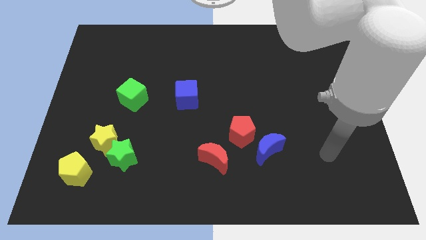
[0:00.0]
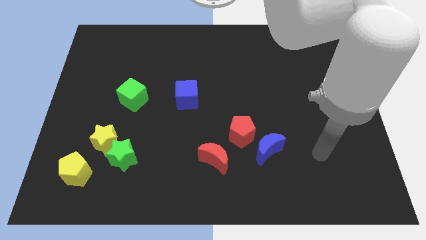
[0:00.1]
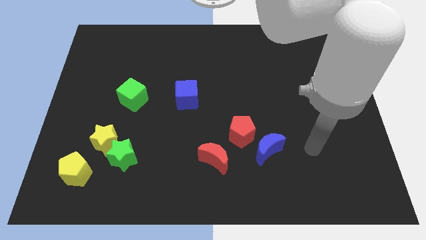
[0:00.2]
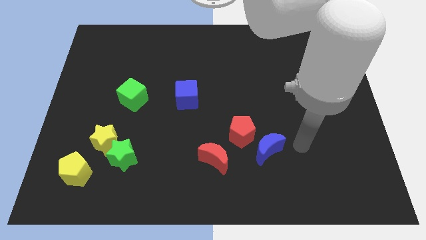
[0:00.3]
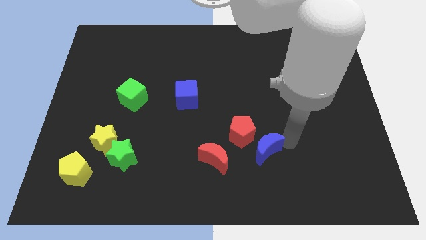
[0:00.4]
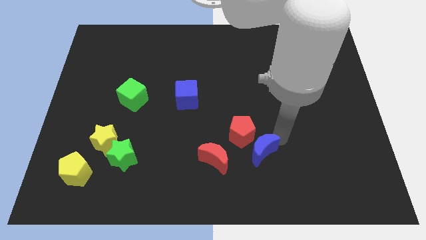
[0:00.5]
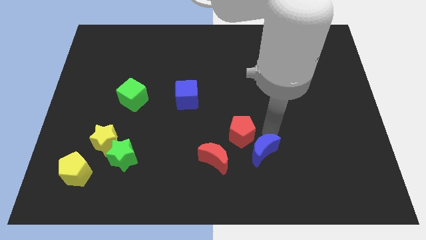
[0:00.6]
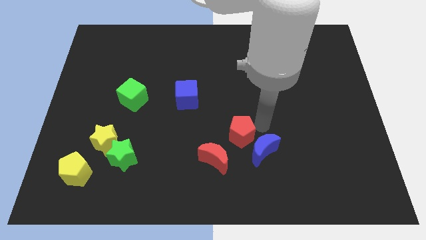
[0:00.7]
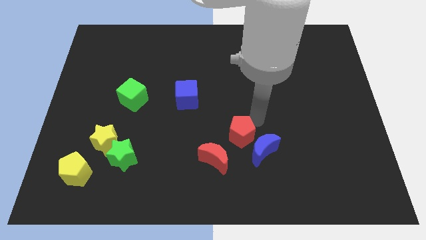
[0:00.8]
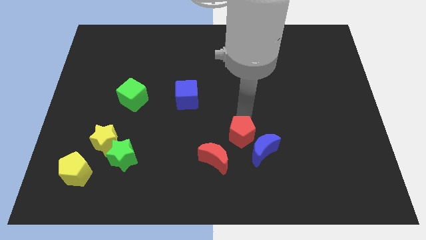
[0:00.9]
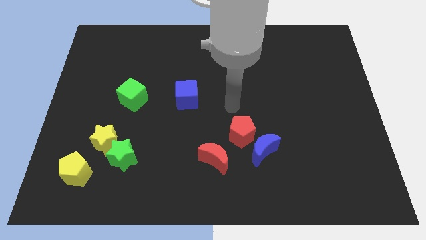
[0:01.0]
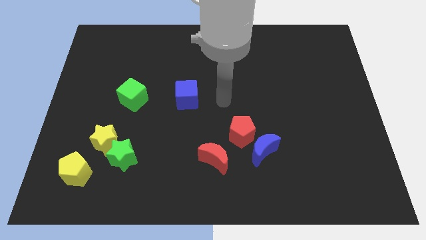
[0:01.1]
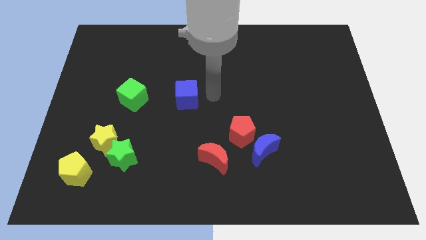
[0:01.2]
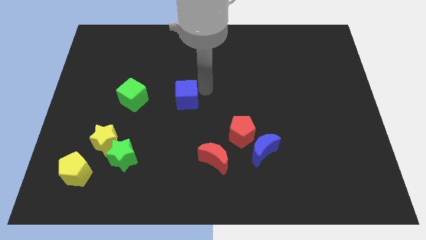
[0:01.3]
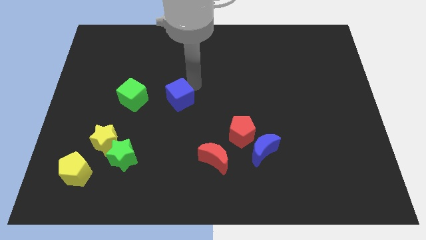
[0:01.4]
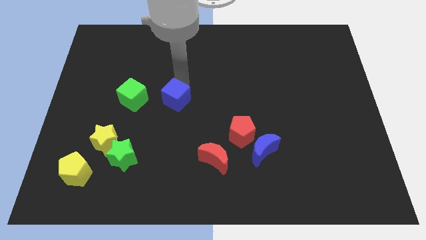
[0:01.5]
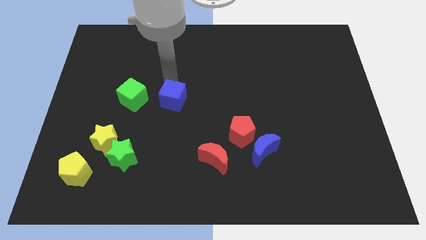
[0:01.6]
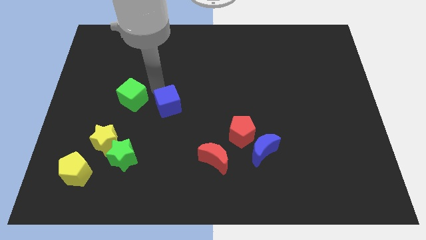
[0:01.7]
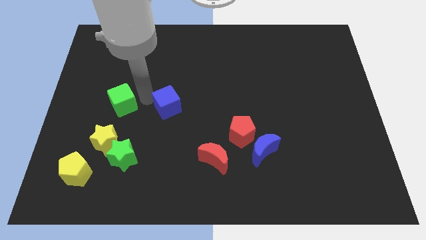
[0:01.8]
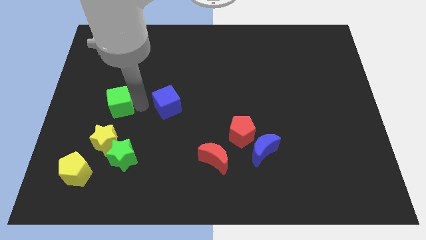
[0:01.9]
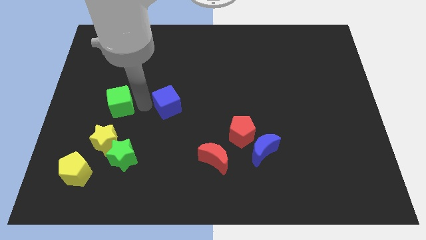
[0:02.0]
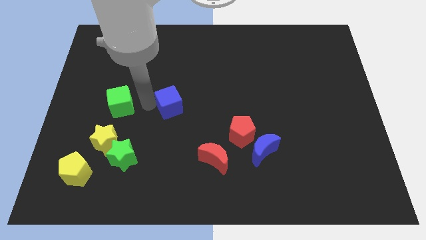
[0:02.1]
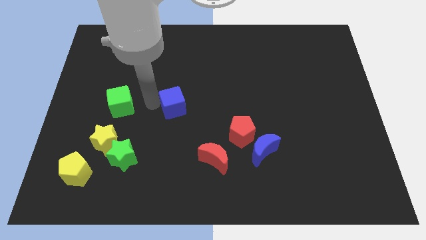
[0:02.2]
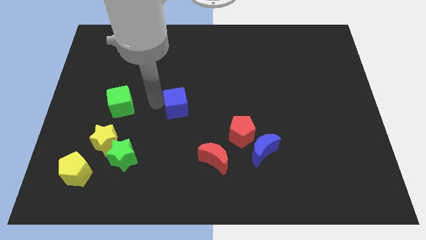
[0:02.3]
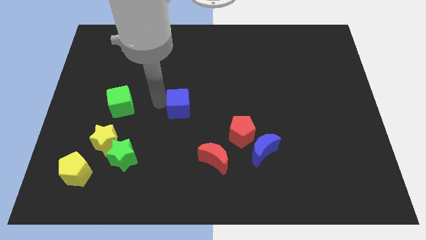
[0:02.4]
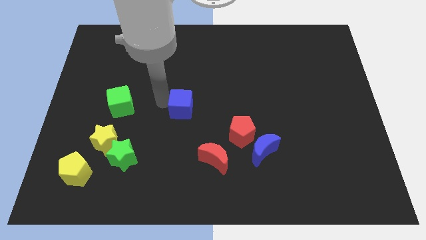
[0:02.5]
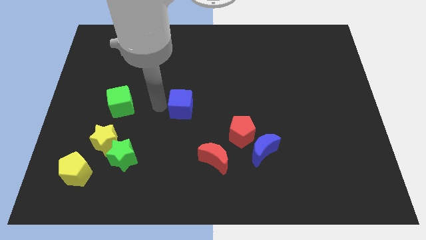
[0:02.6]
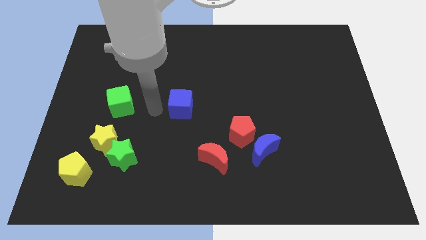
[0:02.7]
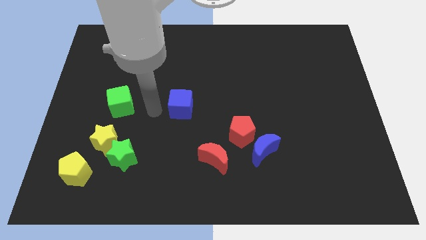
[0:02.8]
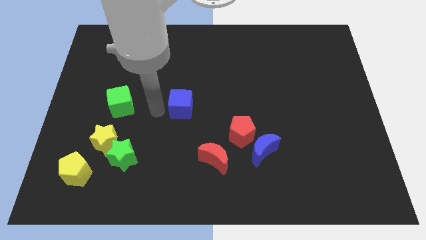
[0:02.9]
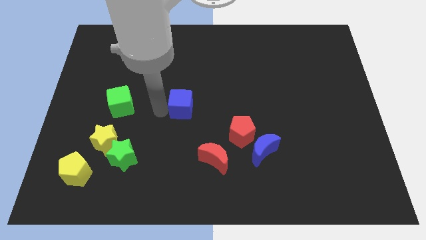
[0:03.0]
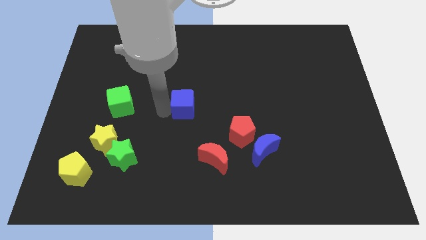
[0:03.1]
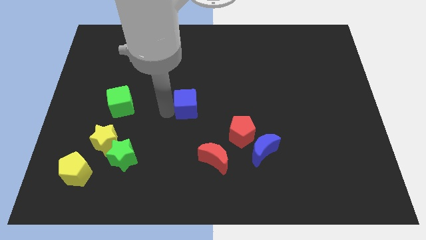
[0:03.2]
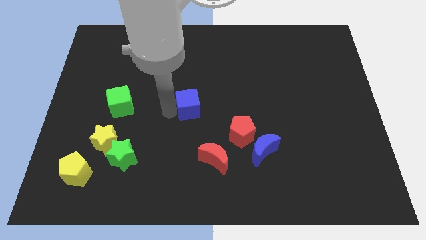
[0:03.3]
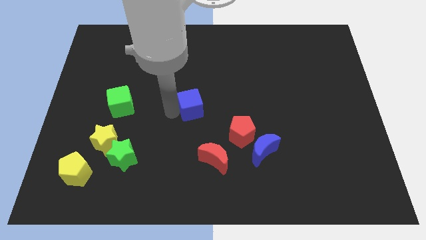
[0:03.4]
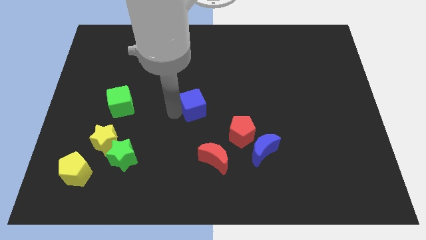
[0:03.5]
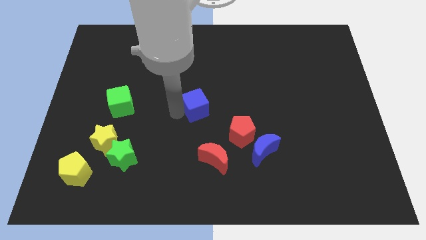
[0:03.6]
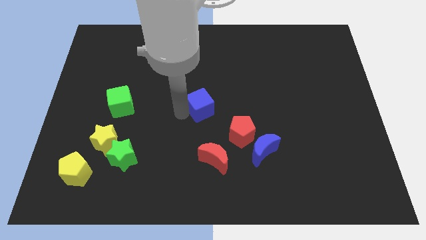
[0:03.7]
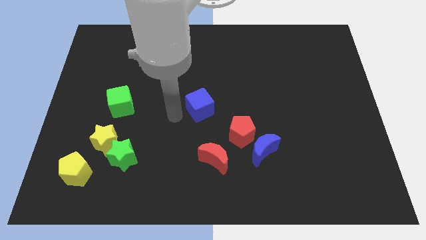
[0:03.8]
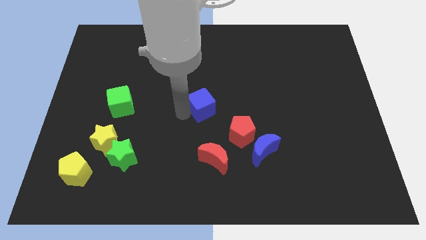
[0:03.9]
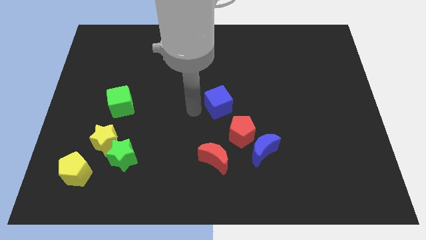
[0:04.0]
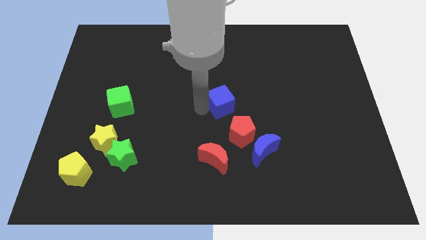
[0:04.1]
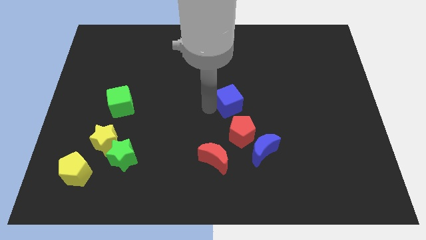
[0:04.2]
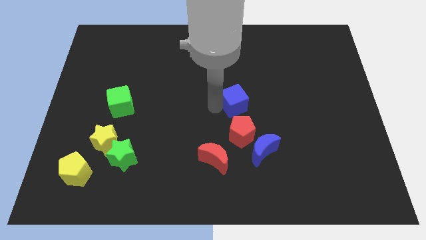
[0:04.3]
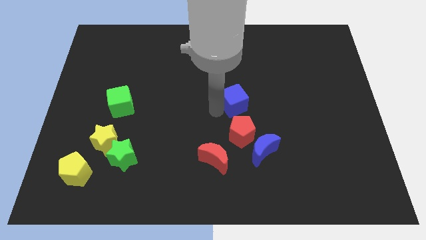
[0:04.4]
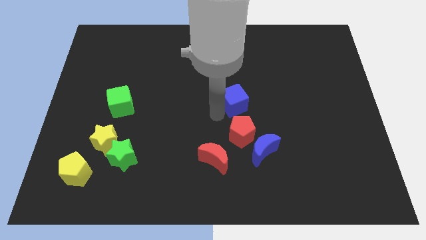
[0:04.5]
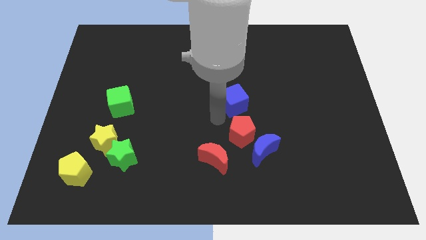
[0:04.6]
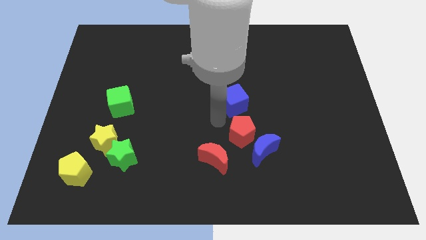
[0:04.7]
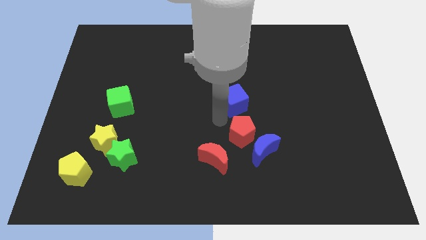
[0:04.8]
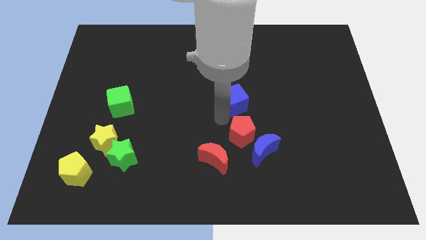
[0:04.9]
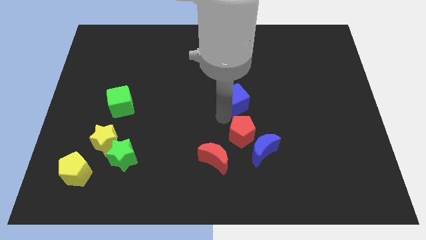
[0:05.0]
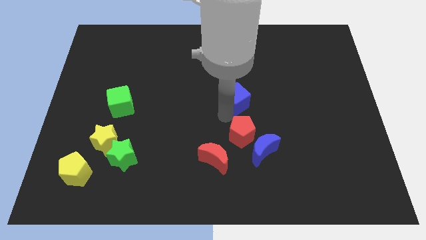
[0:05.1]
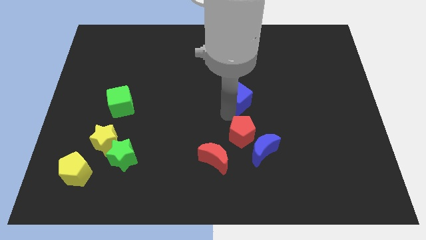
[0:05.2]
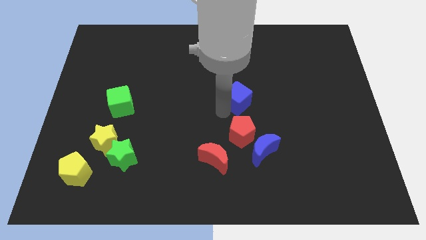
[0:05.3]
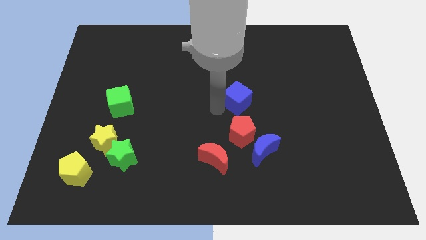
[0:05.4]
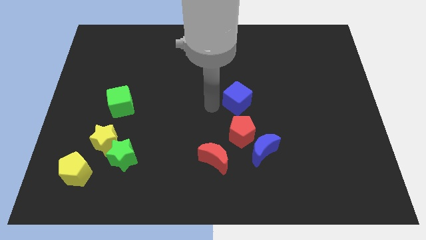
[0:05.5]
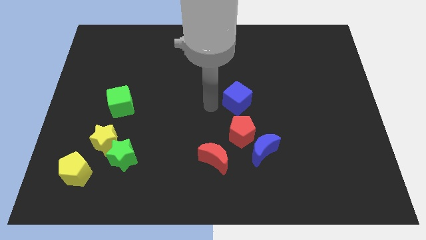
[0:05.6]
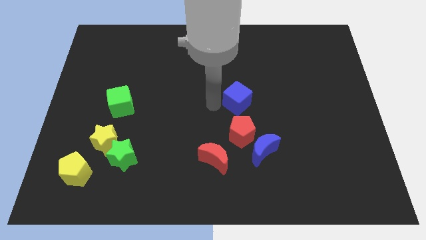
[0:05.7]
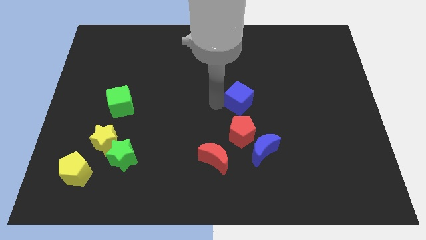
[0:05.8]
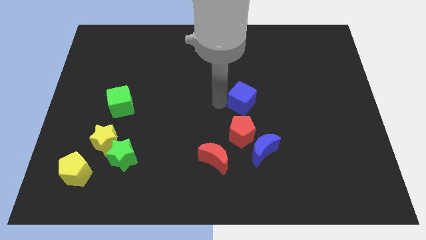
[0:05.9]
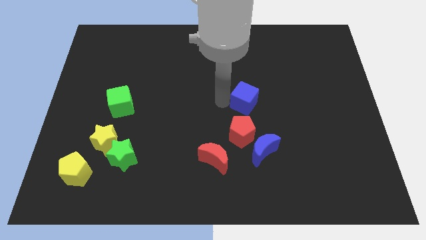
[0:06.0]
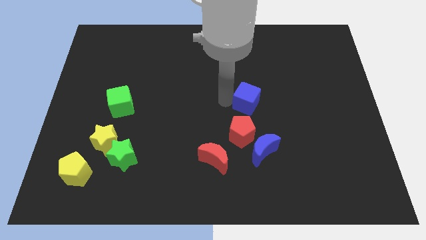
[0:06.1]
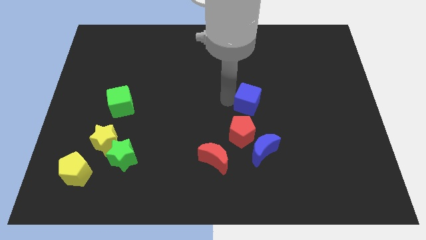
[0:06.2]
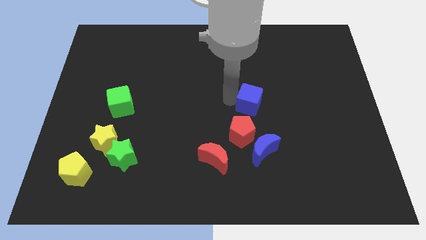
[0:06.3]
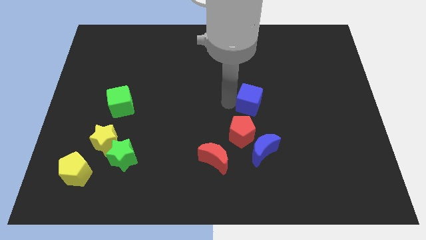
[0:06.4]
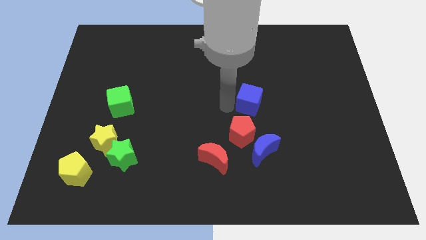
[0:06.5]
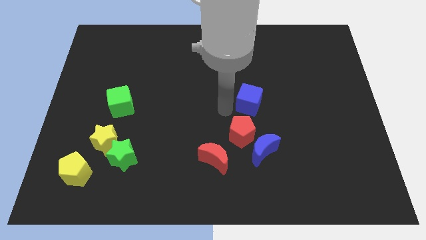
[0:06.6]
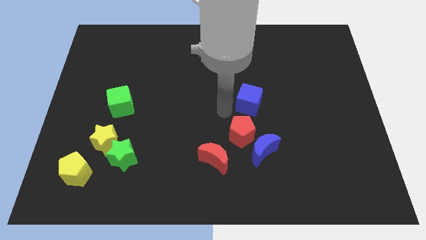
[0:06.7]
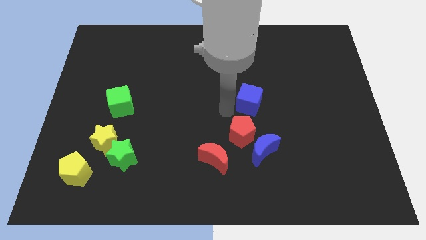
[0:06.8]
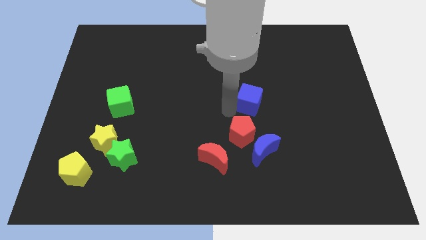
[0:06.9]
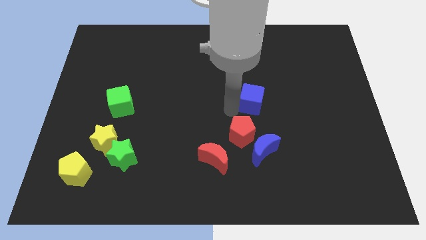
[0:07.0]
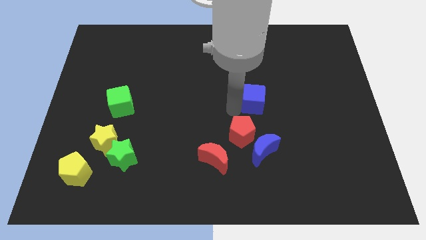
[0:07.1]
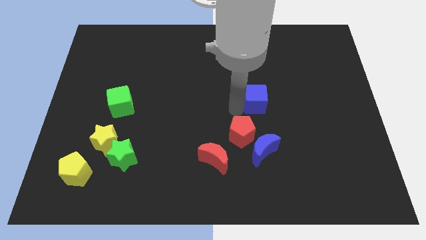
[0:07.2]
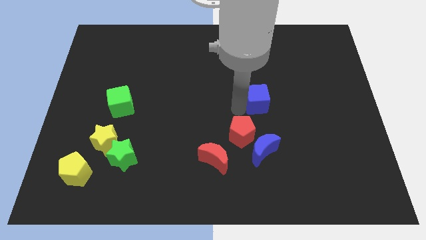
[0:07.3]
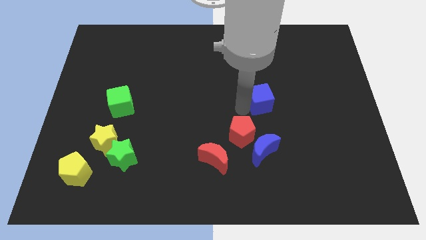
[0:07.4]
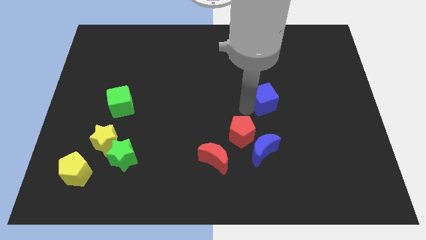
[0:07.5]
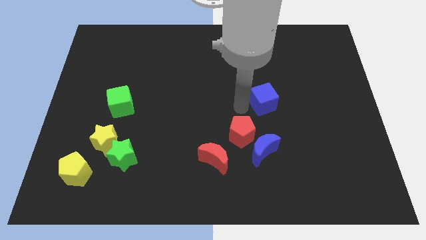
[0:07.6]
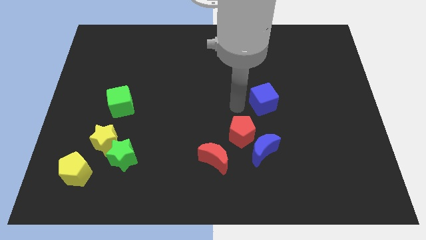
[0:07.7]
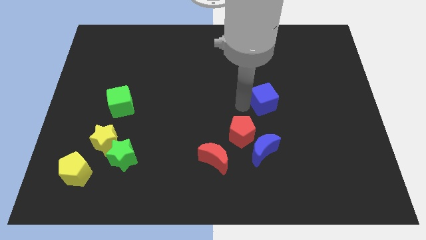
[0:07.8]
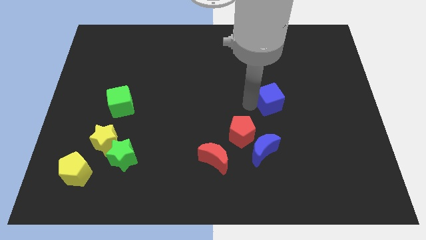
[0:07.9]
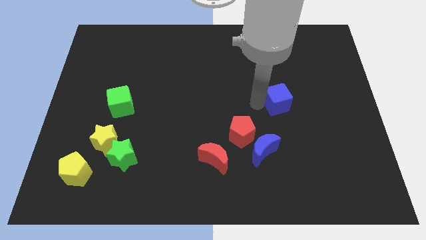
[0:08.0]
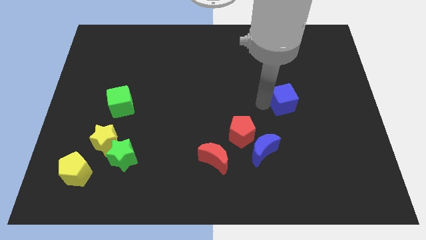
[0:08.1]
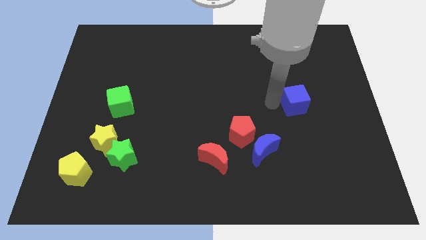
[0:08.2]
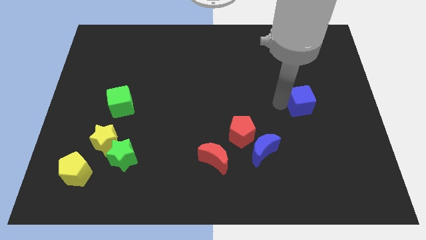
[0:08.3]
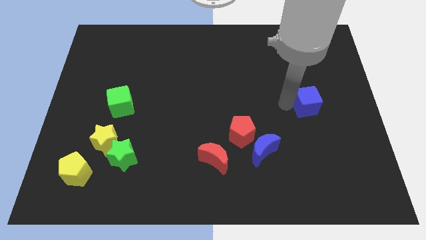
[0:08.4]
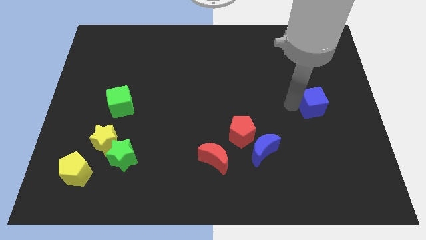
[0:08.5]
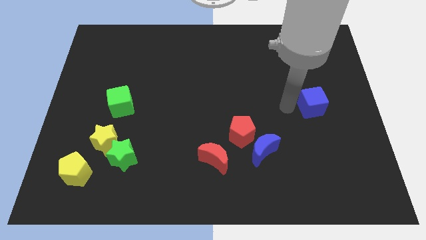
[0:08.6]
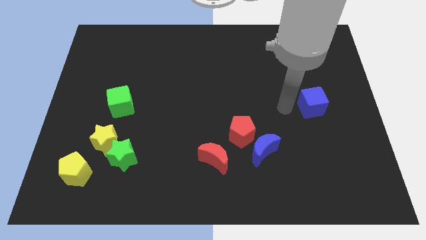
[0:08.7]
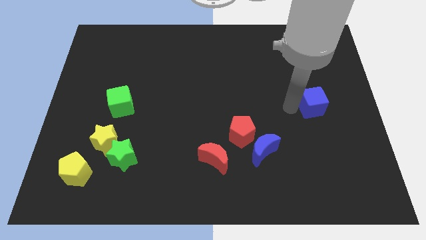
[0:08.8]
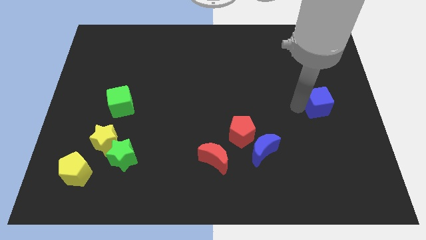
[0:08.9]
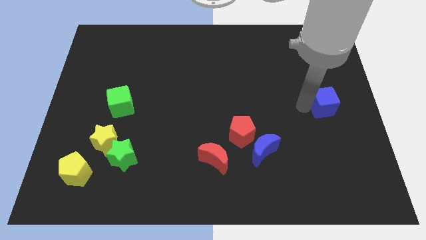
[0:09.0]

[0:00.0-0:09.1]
move the blue cube to the right side
